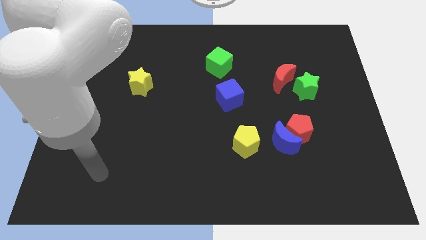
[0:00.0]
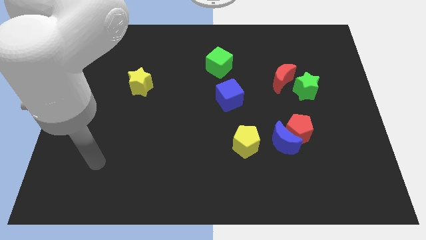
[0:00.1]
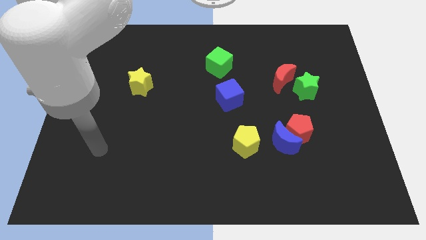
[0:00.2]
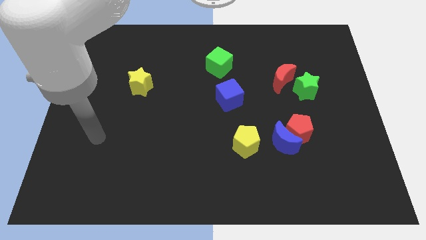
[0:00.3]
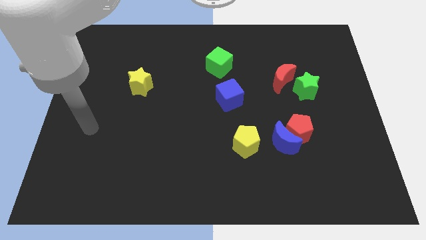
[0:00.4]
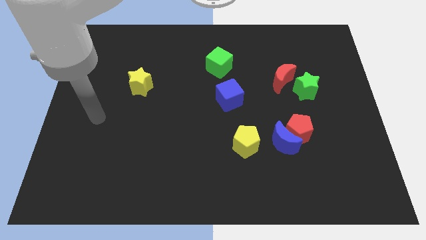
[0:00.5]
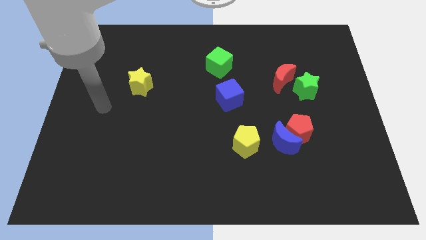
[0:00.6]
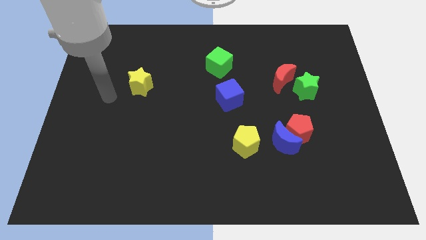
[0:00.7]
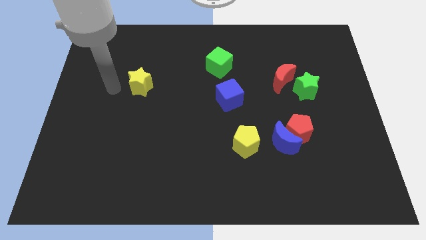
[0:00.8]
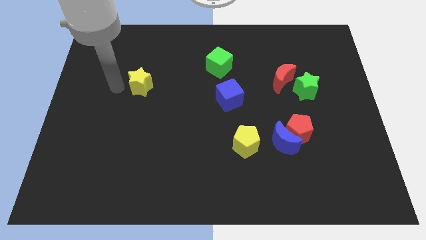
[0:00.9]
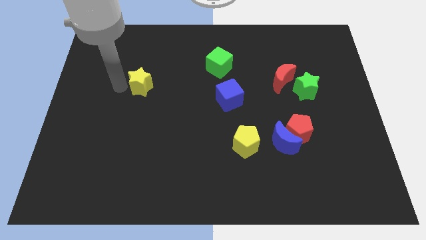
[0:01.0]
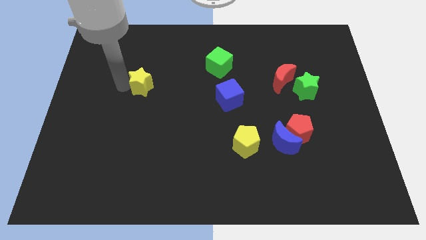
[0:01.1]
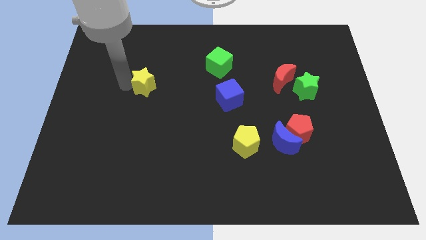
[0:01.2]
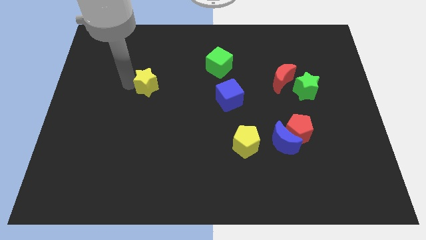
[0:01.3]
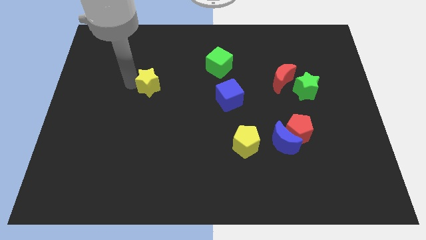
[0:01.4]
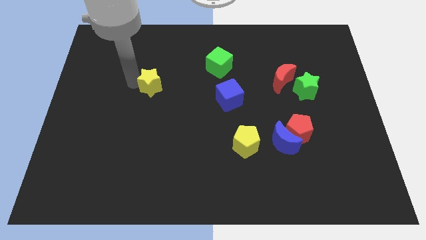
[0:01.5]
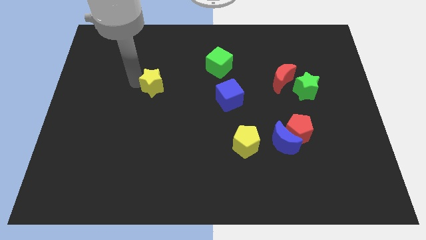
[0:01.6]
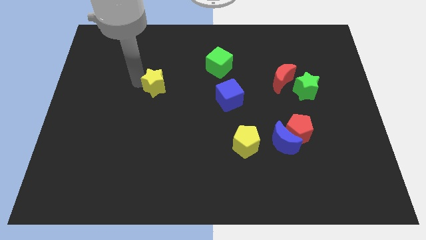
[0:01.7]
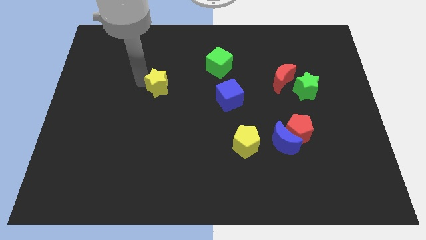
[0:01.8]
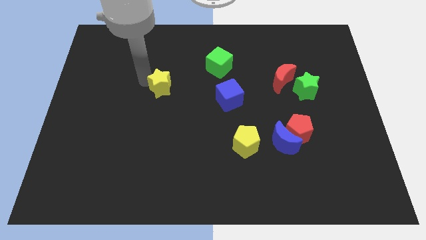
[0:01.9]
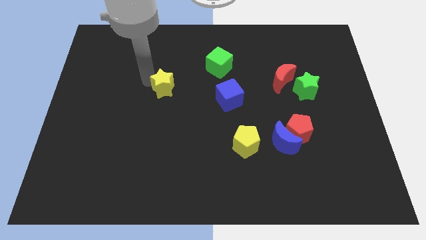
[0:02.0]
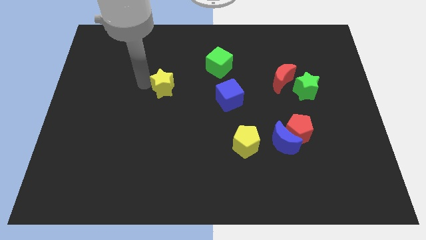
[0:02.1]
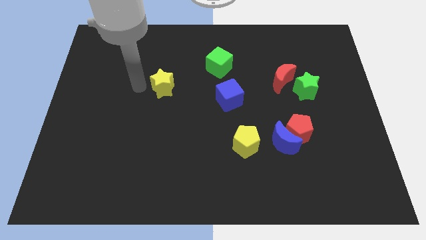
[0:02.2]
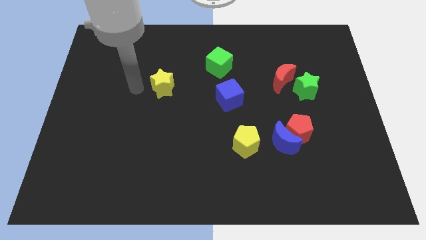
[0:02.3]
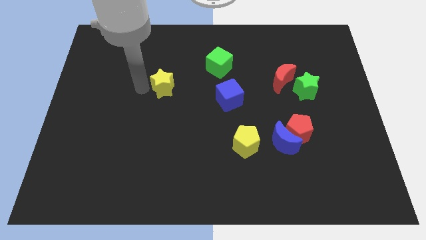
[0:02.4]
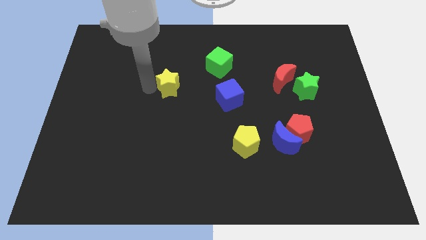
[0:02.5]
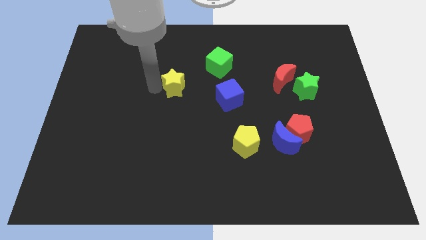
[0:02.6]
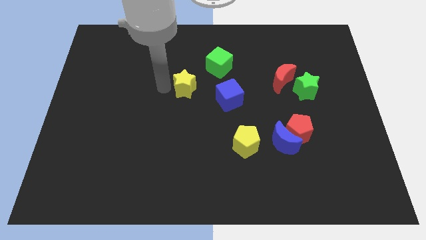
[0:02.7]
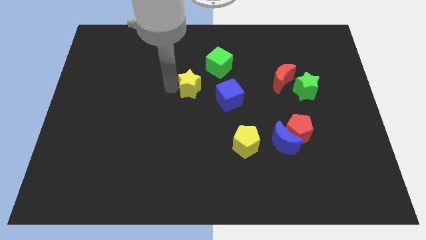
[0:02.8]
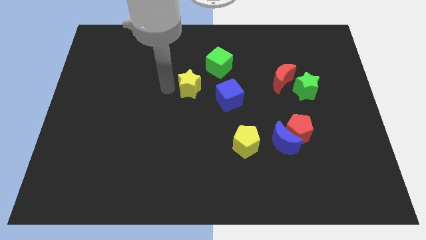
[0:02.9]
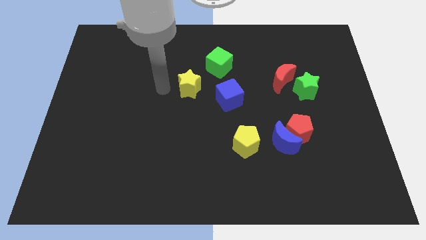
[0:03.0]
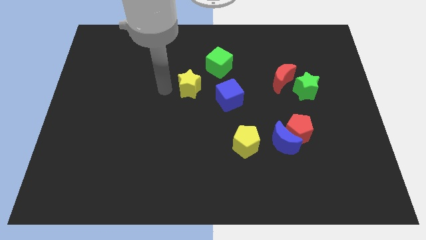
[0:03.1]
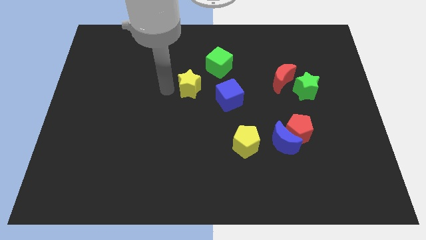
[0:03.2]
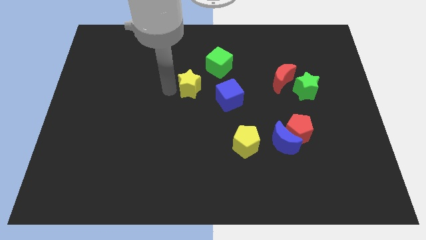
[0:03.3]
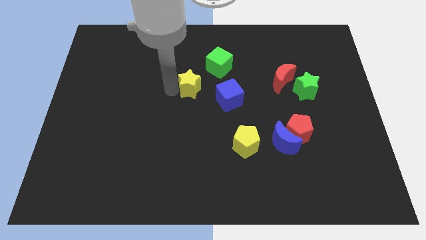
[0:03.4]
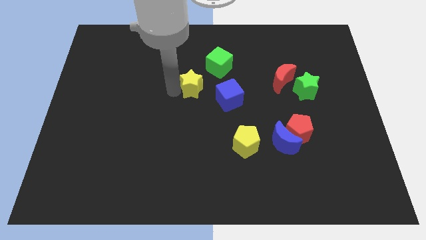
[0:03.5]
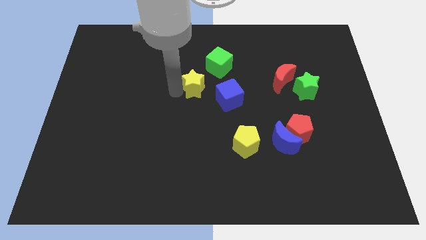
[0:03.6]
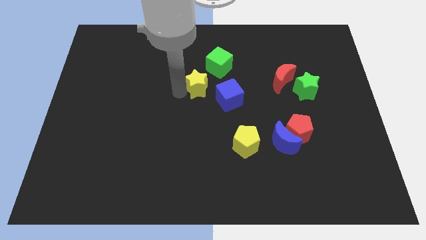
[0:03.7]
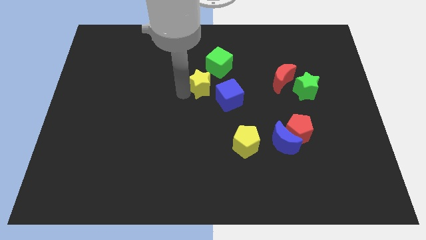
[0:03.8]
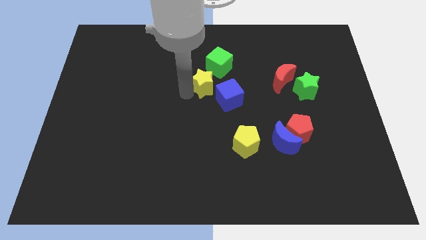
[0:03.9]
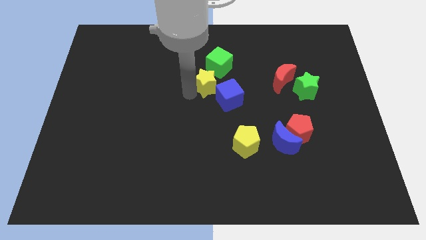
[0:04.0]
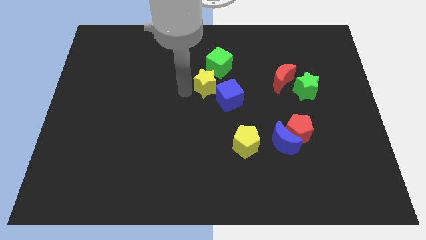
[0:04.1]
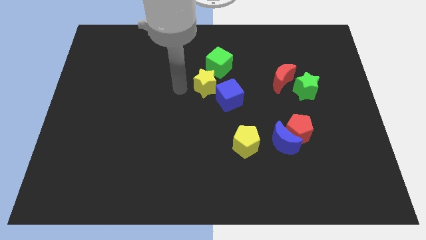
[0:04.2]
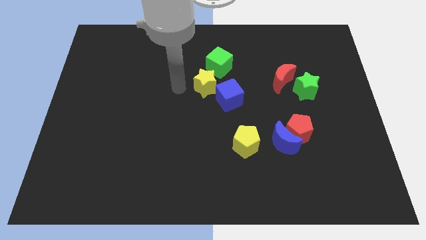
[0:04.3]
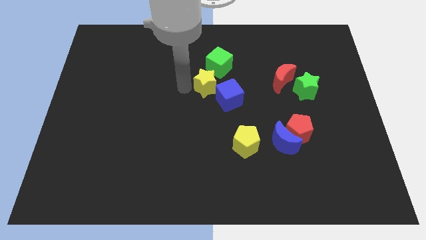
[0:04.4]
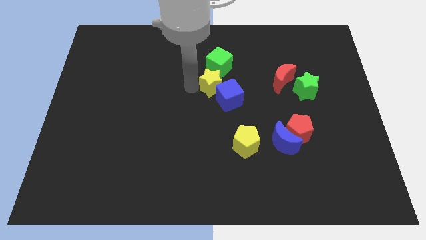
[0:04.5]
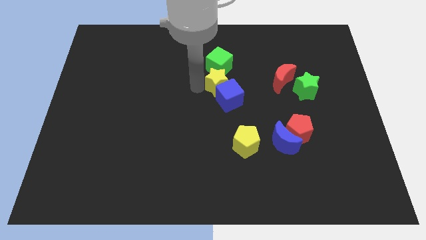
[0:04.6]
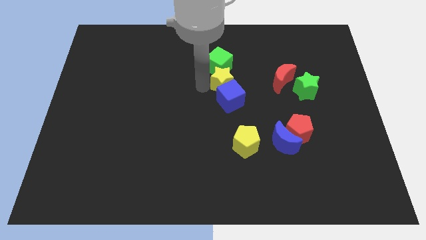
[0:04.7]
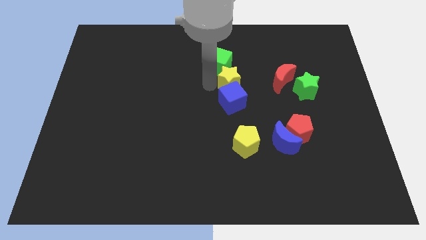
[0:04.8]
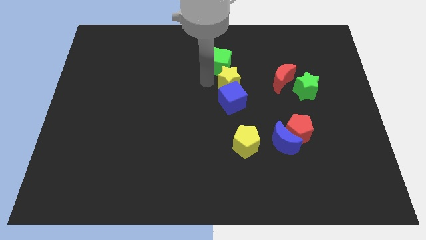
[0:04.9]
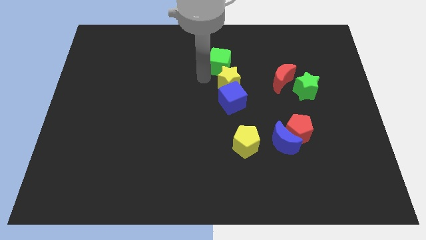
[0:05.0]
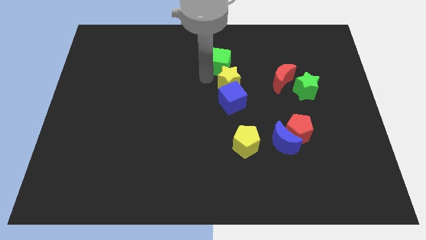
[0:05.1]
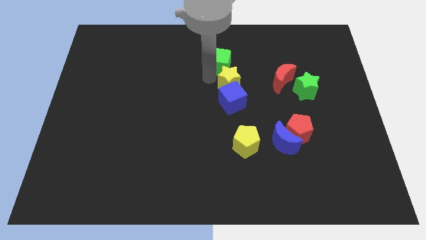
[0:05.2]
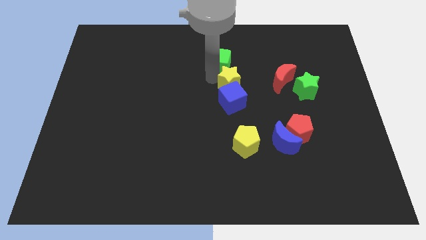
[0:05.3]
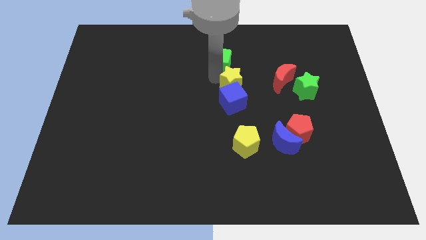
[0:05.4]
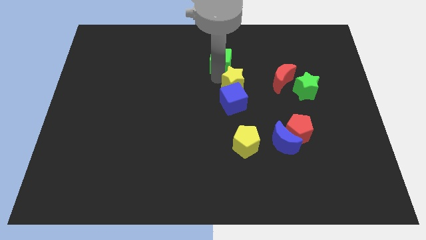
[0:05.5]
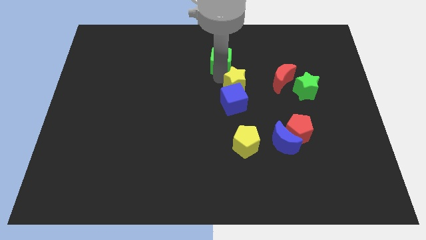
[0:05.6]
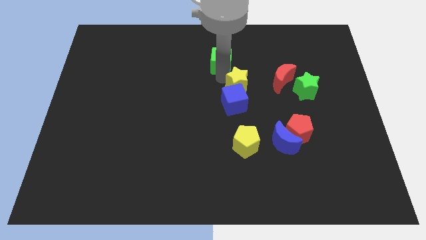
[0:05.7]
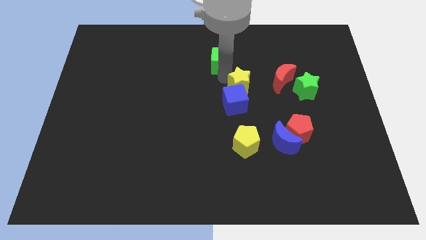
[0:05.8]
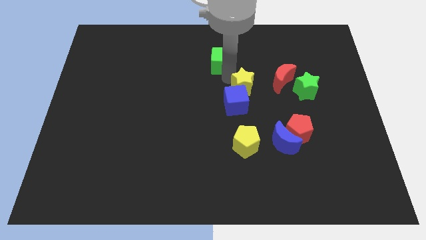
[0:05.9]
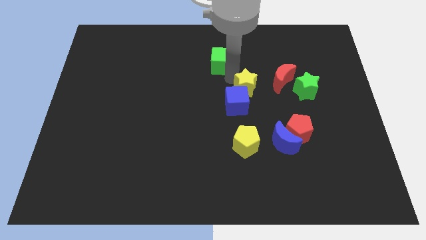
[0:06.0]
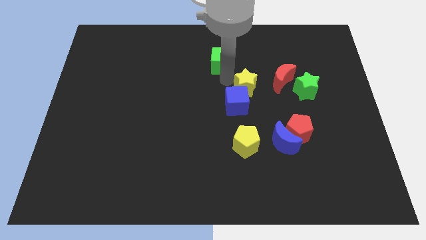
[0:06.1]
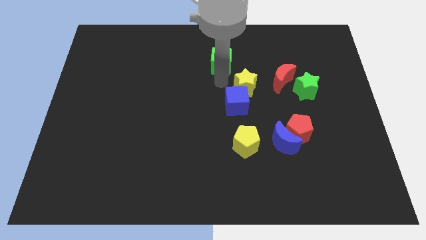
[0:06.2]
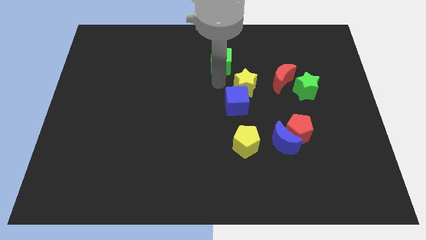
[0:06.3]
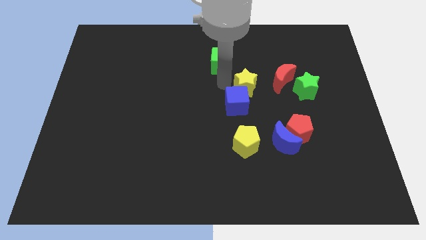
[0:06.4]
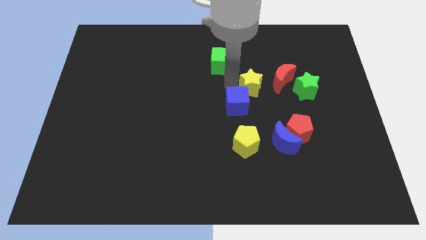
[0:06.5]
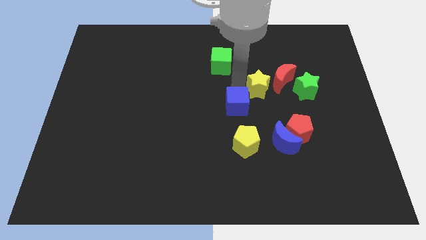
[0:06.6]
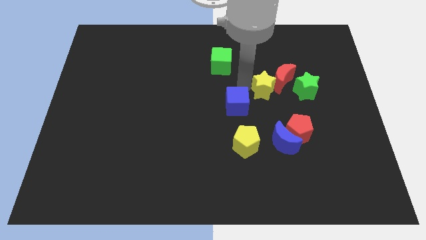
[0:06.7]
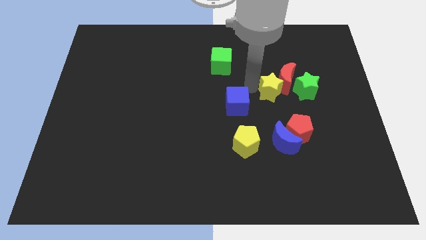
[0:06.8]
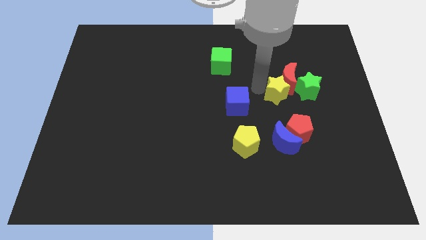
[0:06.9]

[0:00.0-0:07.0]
push the yellow star to the top of the red pentagon
